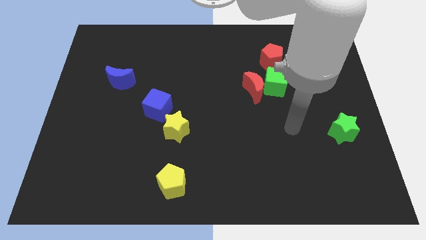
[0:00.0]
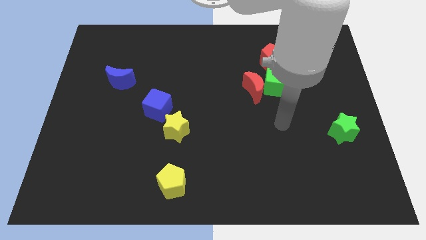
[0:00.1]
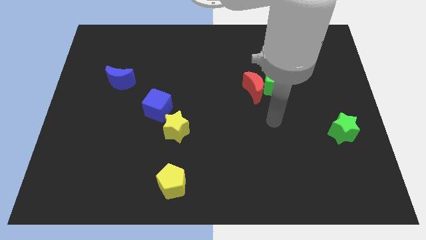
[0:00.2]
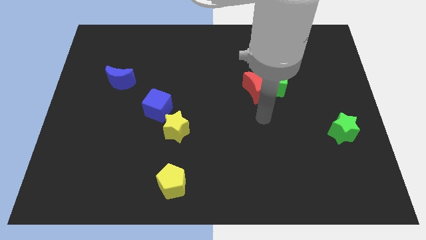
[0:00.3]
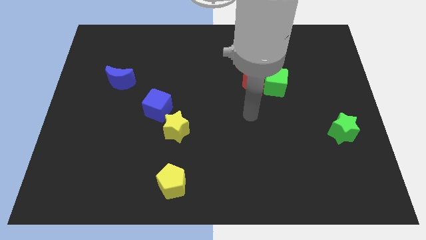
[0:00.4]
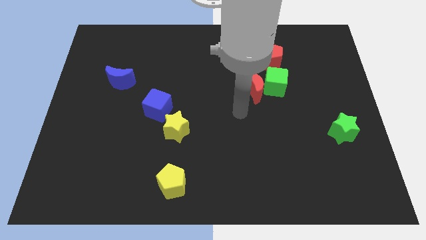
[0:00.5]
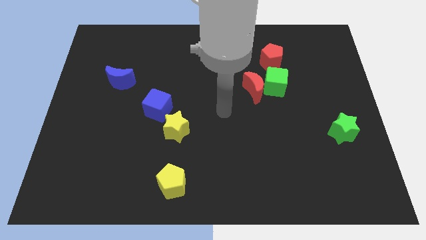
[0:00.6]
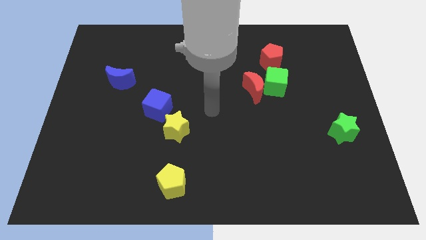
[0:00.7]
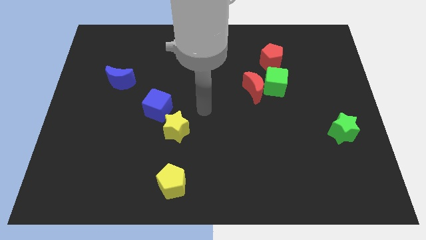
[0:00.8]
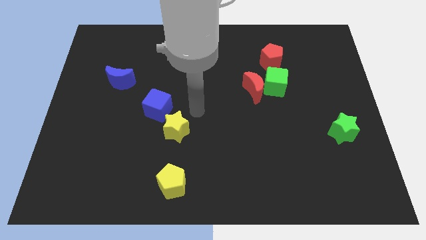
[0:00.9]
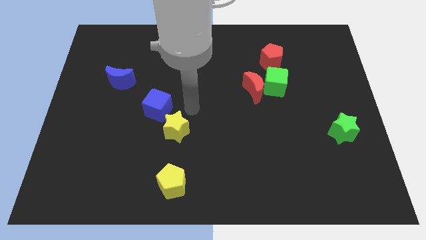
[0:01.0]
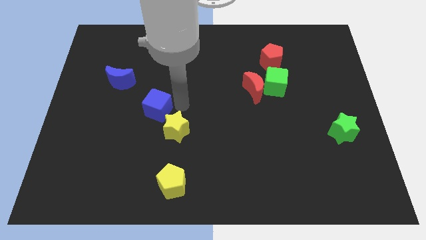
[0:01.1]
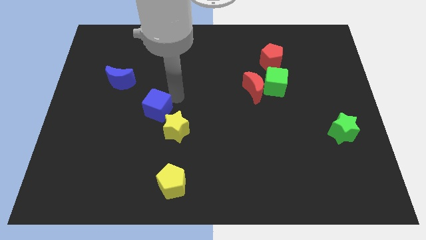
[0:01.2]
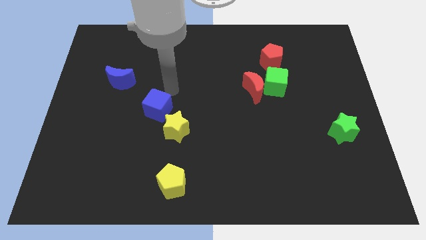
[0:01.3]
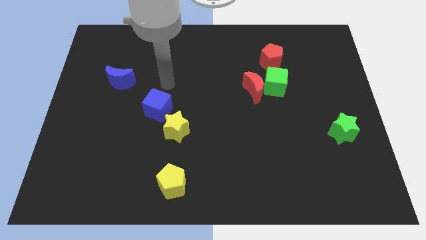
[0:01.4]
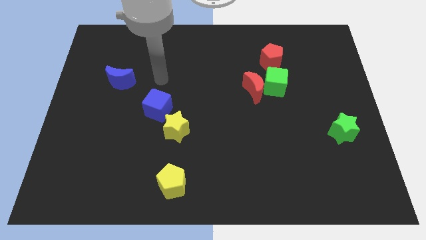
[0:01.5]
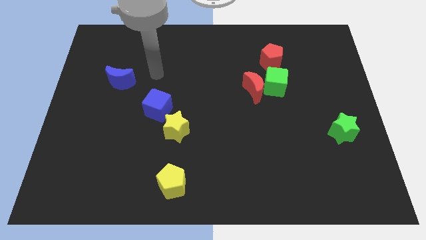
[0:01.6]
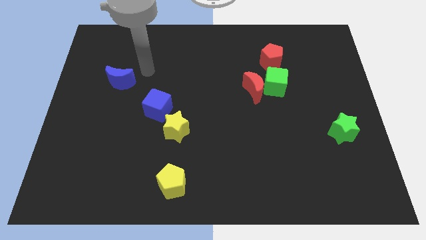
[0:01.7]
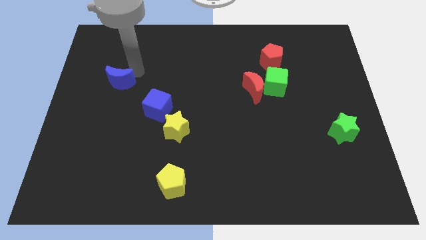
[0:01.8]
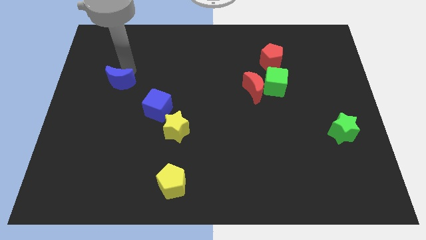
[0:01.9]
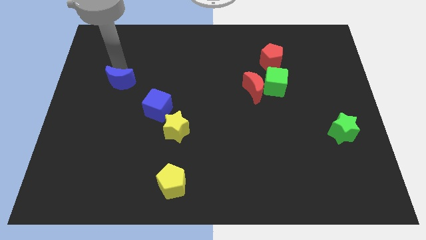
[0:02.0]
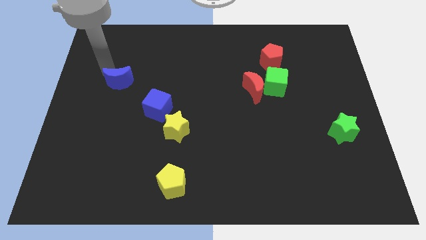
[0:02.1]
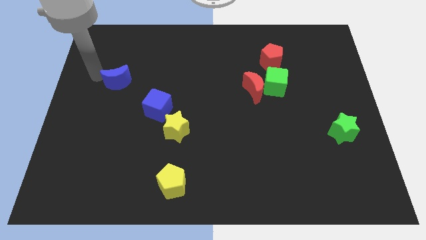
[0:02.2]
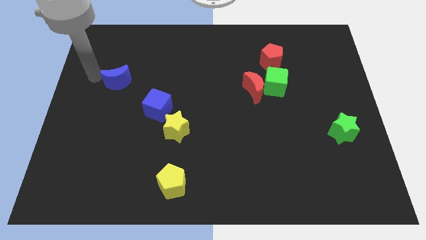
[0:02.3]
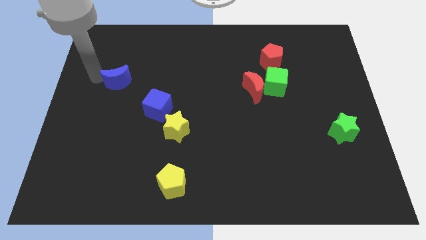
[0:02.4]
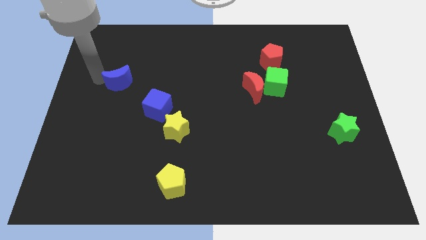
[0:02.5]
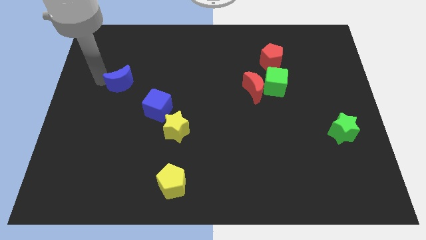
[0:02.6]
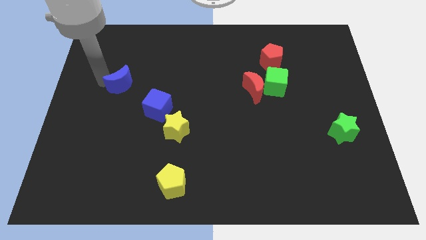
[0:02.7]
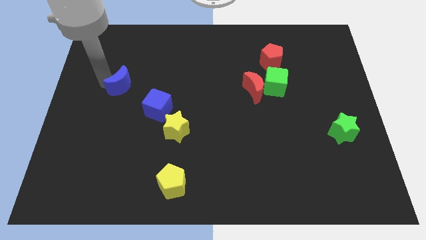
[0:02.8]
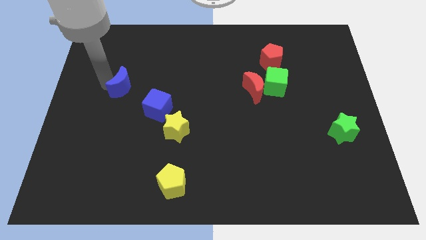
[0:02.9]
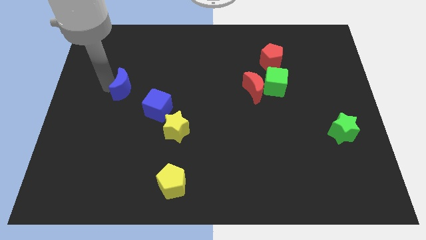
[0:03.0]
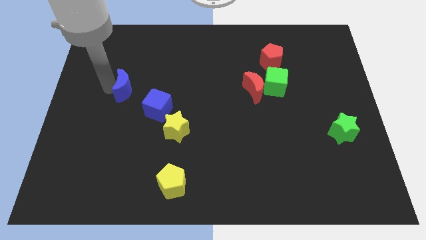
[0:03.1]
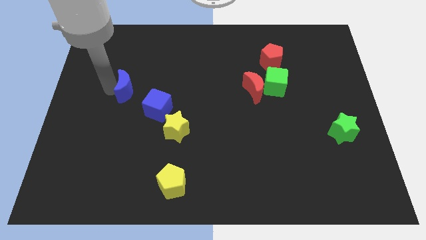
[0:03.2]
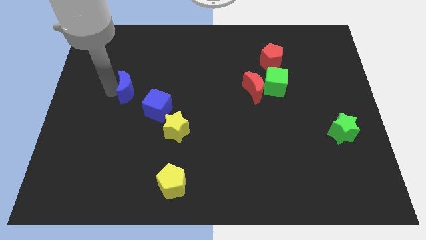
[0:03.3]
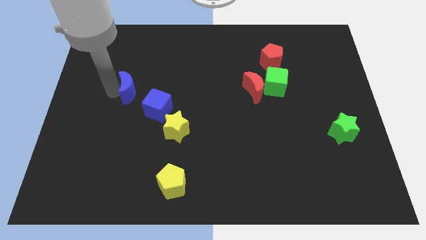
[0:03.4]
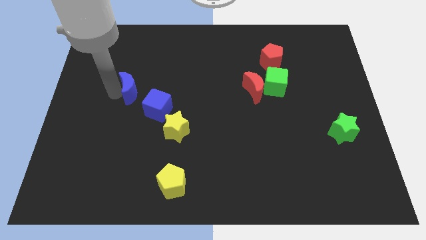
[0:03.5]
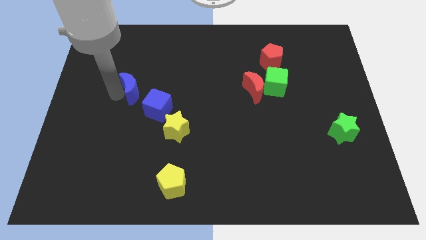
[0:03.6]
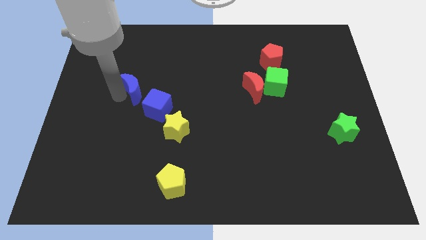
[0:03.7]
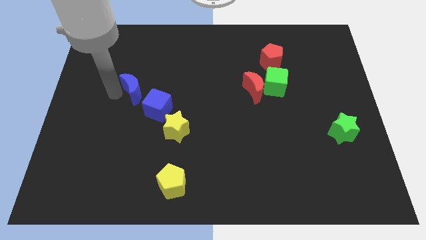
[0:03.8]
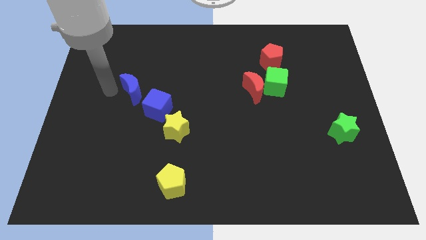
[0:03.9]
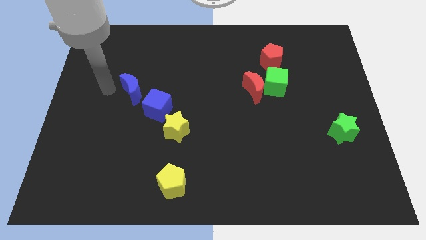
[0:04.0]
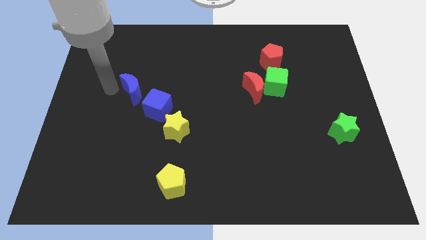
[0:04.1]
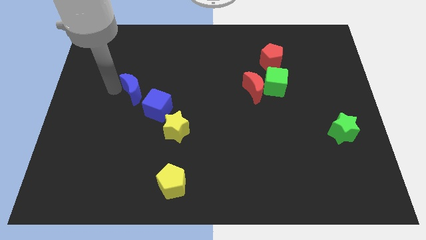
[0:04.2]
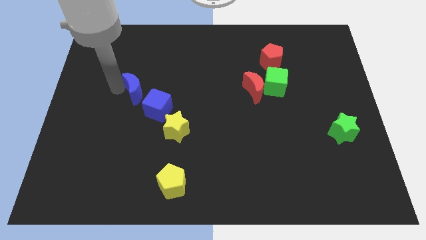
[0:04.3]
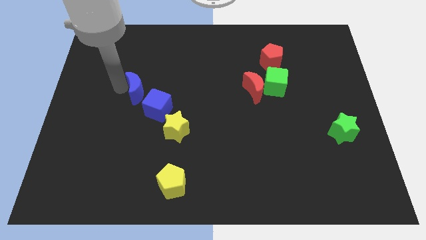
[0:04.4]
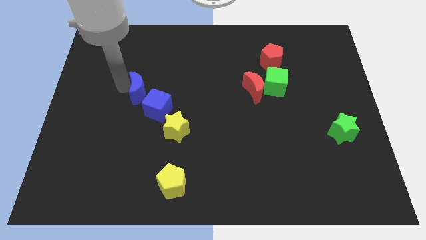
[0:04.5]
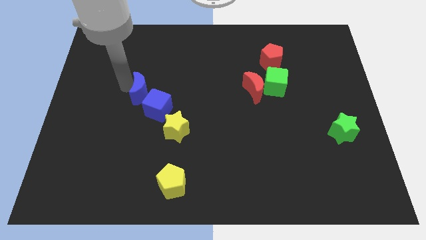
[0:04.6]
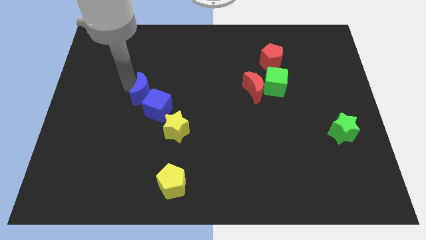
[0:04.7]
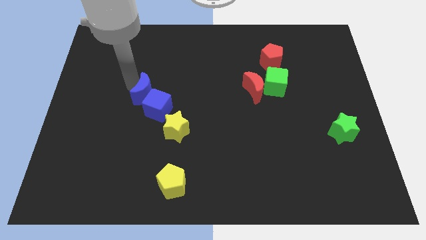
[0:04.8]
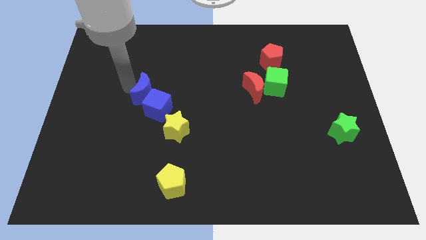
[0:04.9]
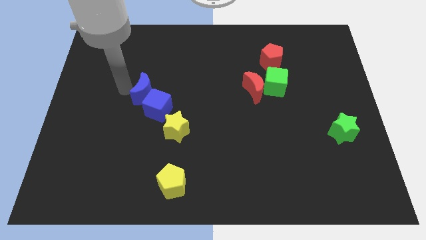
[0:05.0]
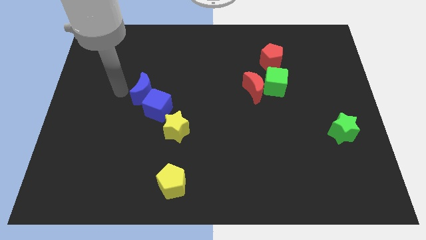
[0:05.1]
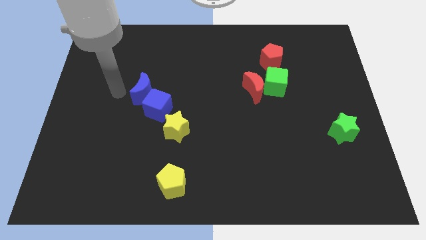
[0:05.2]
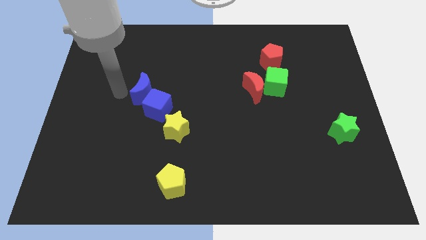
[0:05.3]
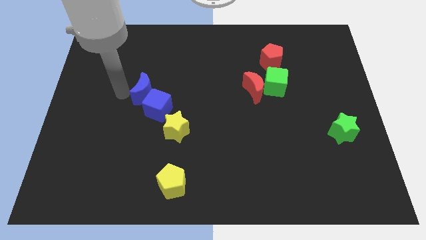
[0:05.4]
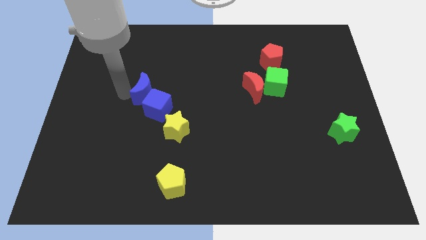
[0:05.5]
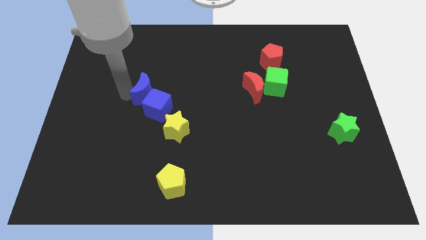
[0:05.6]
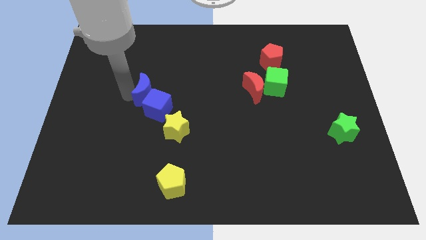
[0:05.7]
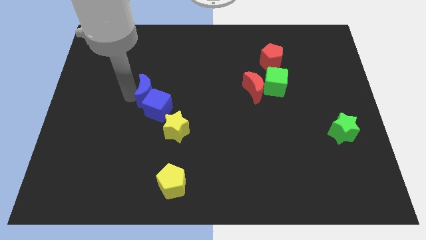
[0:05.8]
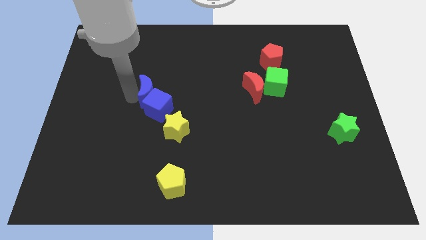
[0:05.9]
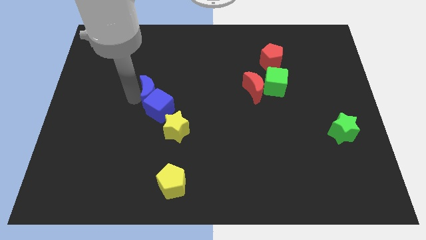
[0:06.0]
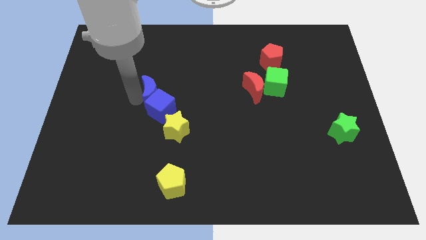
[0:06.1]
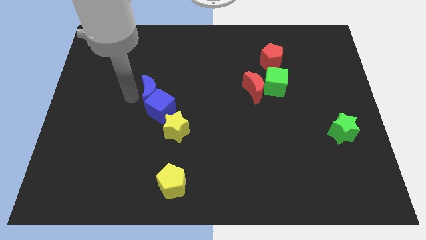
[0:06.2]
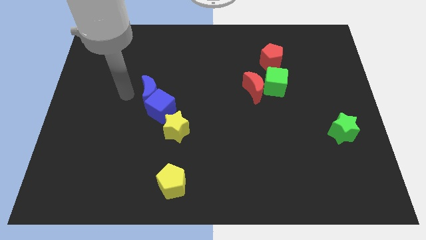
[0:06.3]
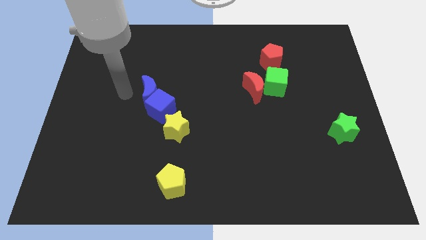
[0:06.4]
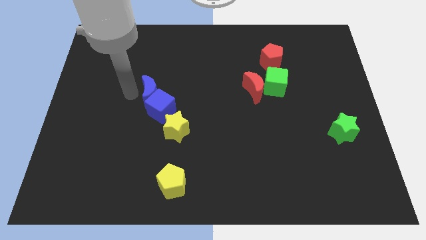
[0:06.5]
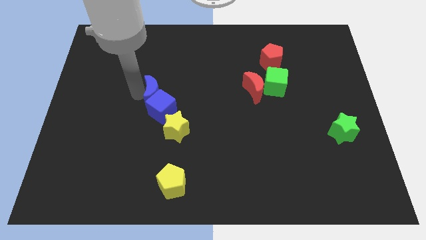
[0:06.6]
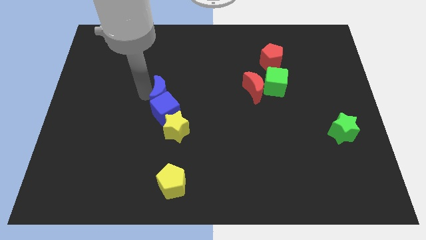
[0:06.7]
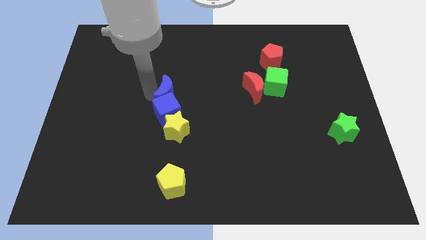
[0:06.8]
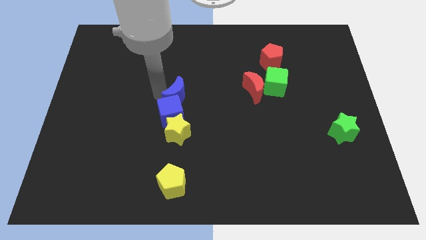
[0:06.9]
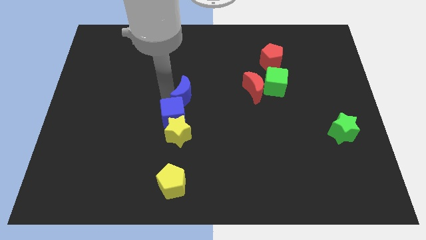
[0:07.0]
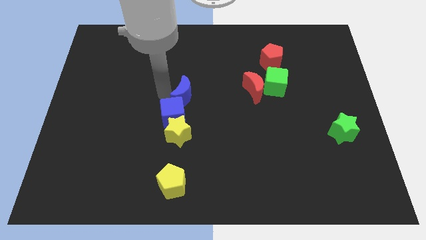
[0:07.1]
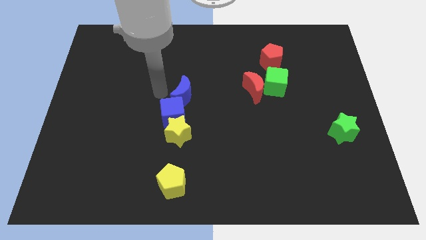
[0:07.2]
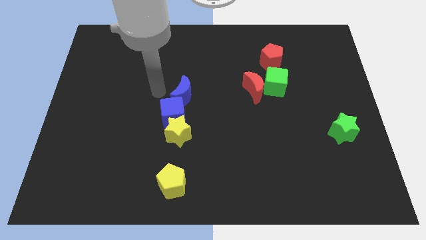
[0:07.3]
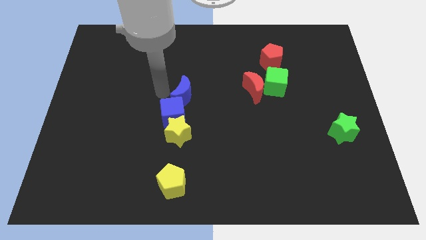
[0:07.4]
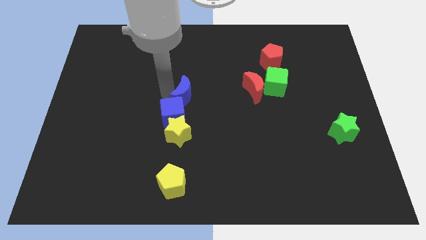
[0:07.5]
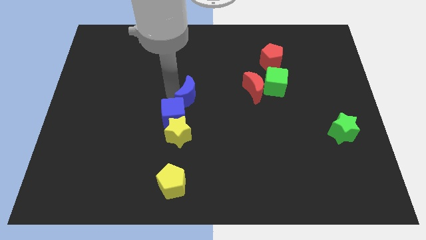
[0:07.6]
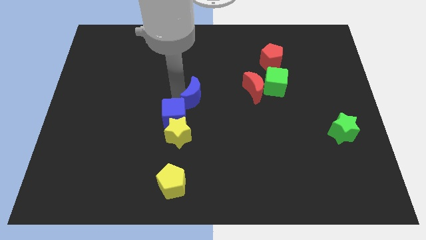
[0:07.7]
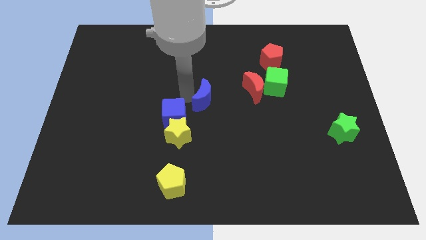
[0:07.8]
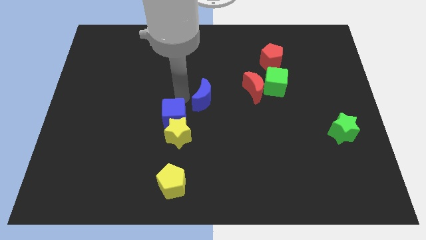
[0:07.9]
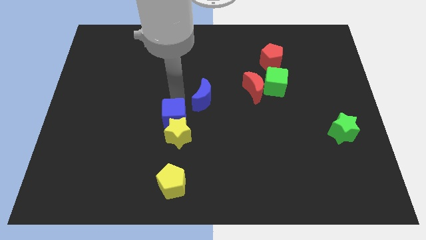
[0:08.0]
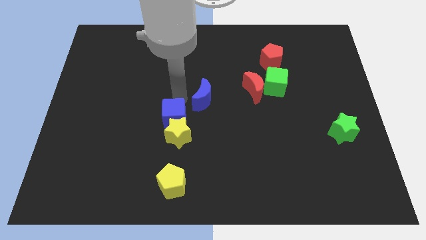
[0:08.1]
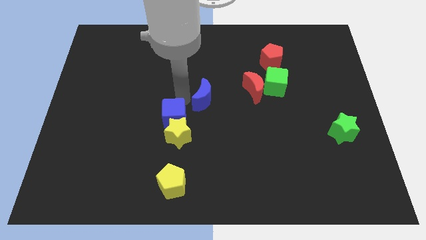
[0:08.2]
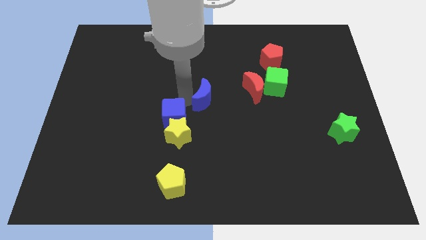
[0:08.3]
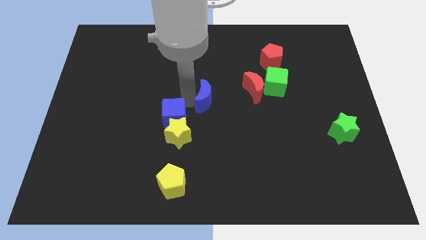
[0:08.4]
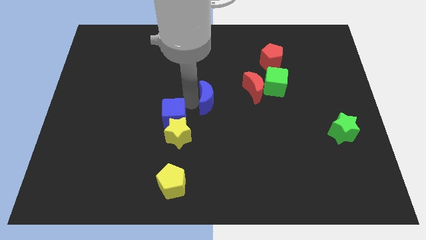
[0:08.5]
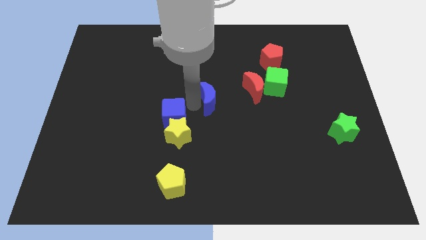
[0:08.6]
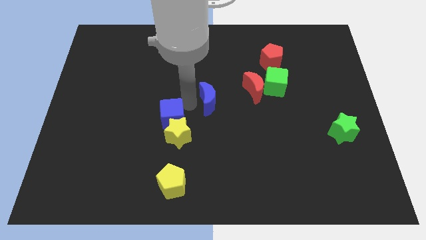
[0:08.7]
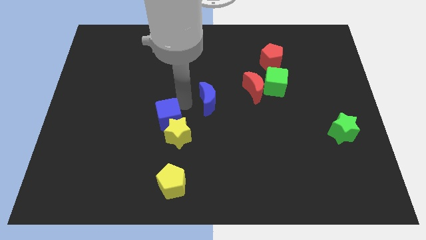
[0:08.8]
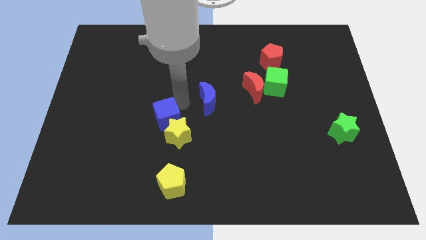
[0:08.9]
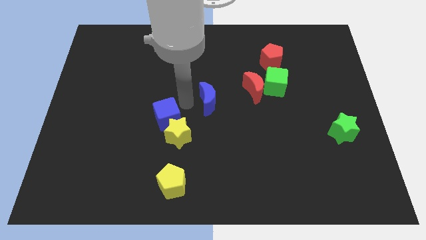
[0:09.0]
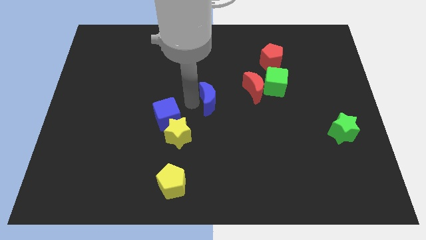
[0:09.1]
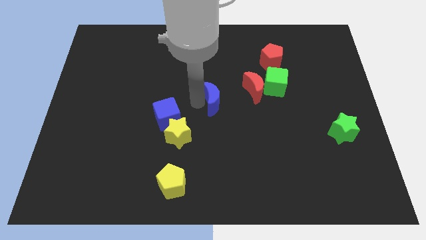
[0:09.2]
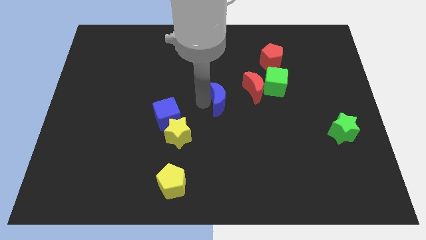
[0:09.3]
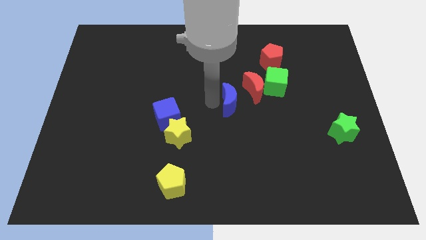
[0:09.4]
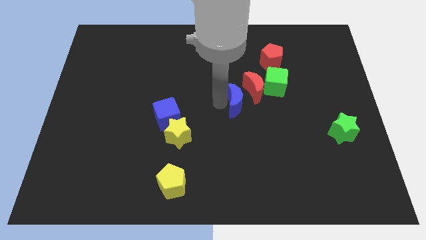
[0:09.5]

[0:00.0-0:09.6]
push the blue moon diagonally down and to the left of the green cube
